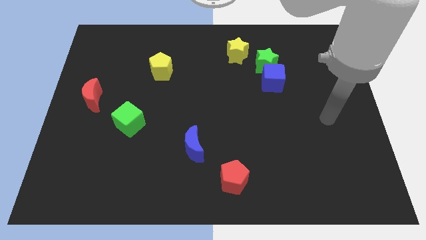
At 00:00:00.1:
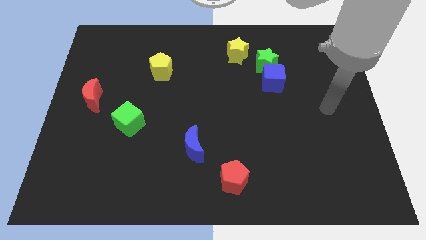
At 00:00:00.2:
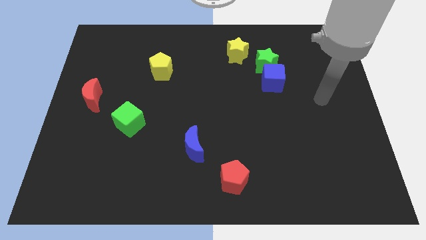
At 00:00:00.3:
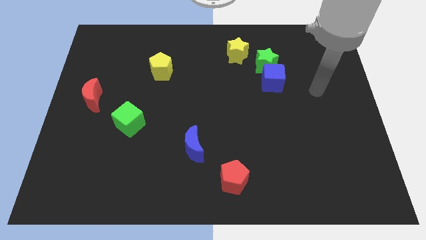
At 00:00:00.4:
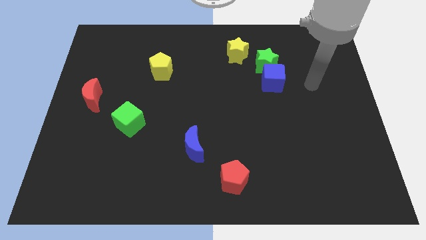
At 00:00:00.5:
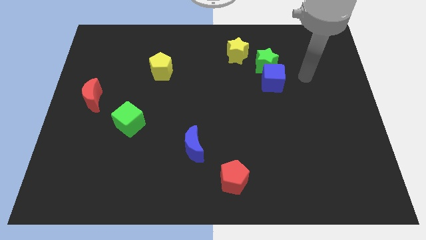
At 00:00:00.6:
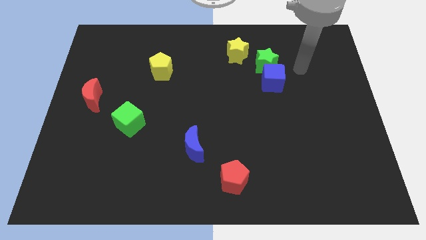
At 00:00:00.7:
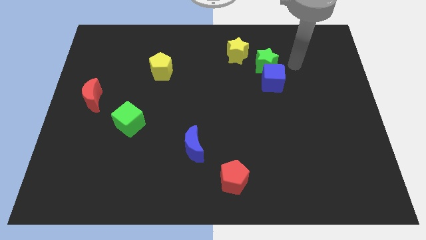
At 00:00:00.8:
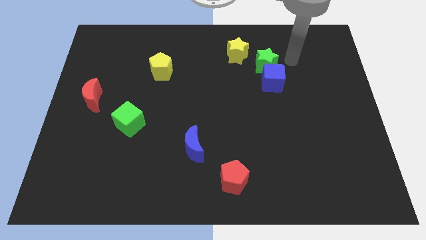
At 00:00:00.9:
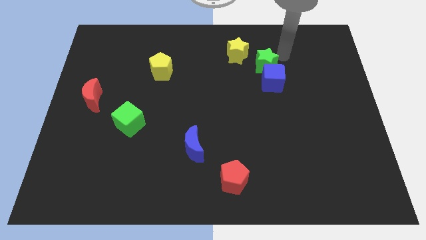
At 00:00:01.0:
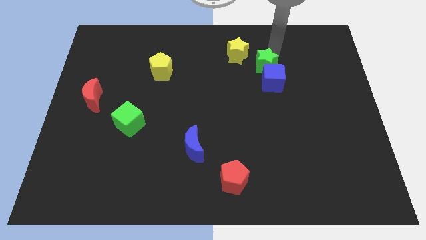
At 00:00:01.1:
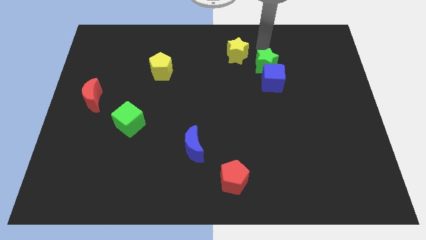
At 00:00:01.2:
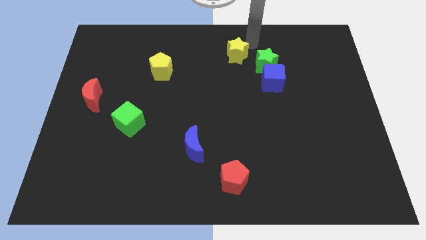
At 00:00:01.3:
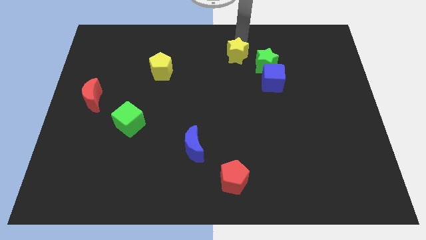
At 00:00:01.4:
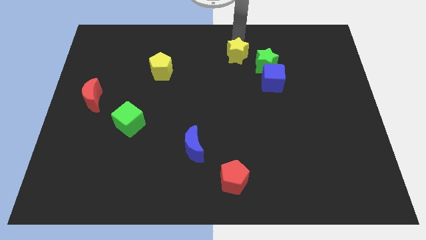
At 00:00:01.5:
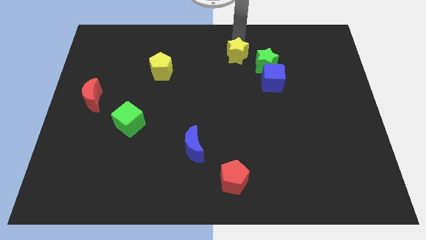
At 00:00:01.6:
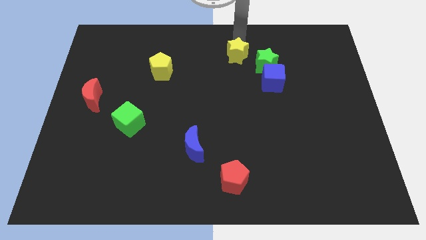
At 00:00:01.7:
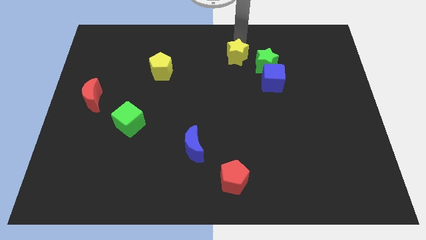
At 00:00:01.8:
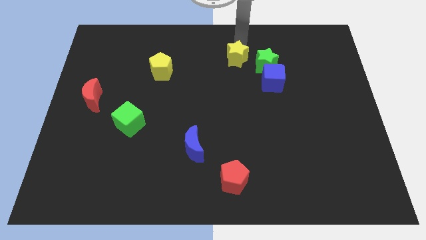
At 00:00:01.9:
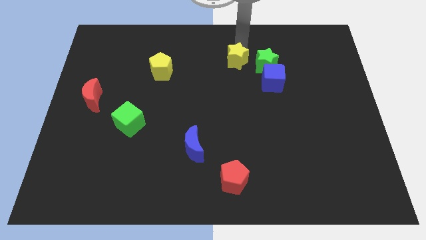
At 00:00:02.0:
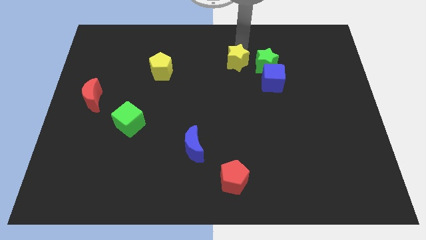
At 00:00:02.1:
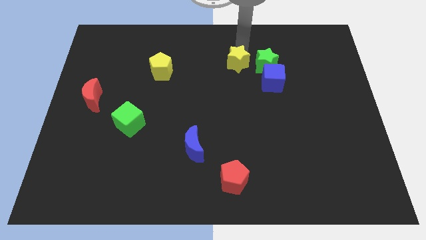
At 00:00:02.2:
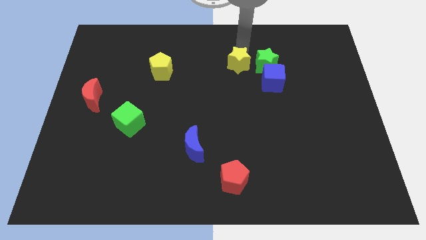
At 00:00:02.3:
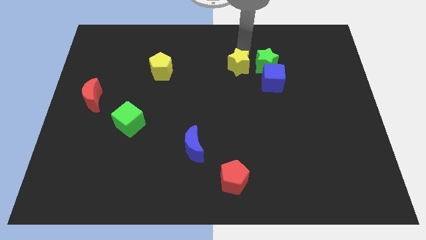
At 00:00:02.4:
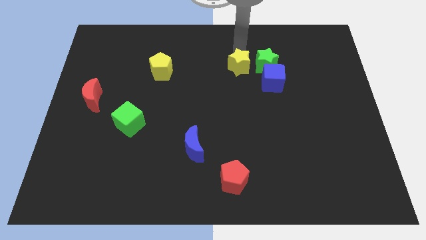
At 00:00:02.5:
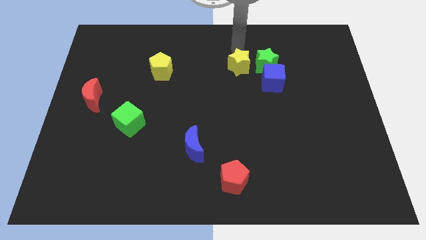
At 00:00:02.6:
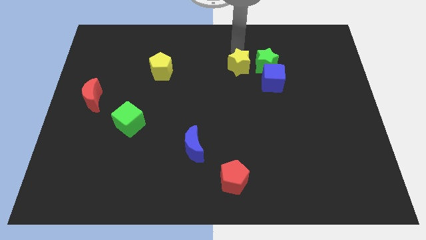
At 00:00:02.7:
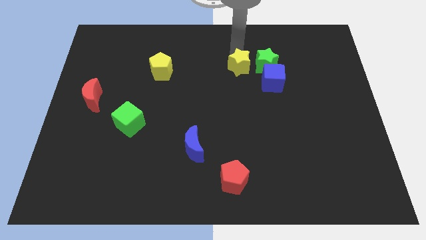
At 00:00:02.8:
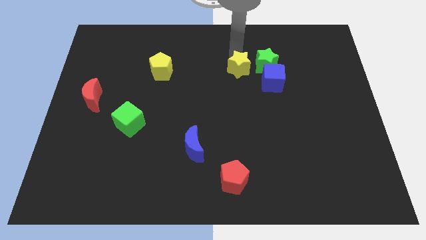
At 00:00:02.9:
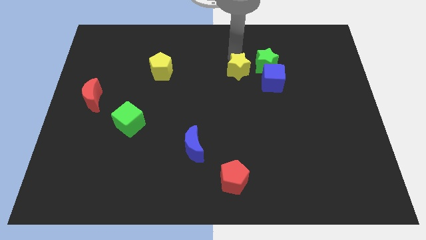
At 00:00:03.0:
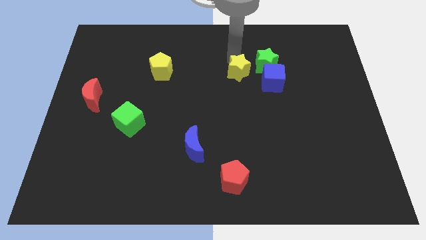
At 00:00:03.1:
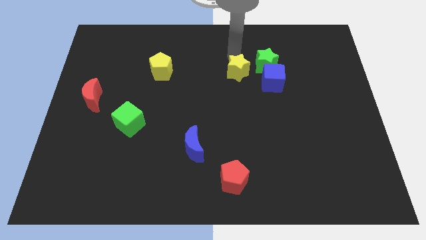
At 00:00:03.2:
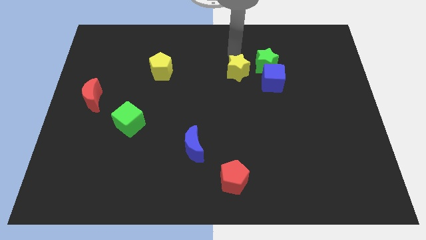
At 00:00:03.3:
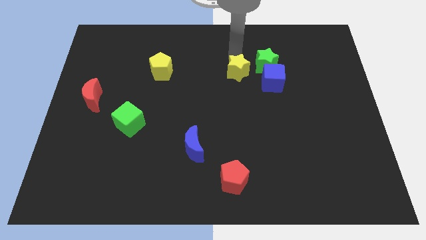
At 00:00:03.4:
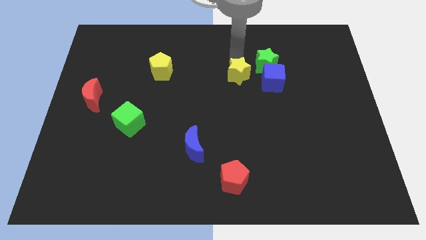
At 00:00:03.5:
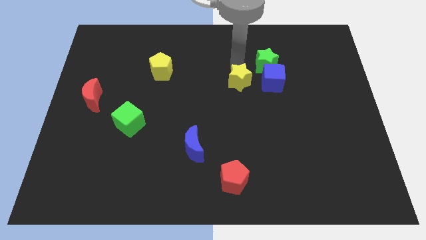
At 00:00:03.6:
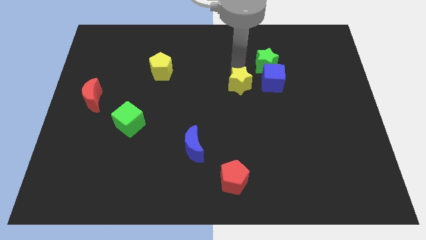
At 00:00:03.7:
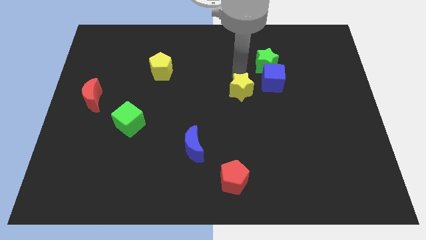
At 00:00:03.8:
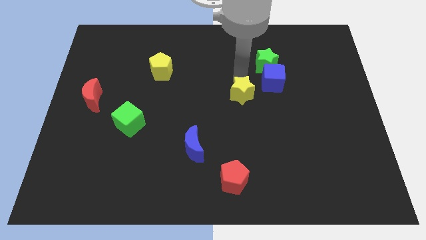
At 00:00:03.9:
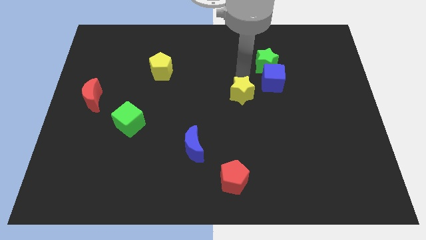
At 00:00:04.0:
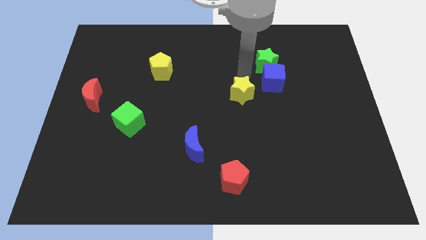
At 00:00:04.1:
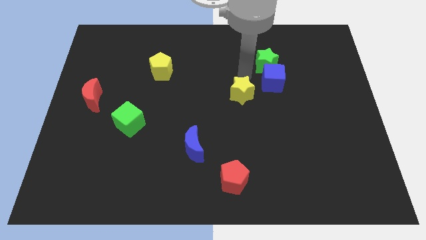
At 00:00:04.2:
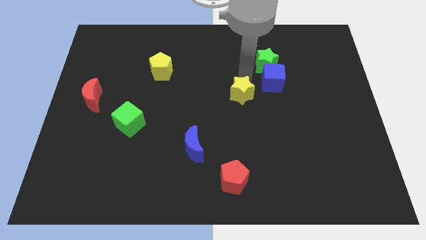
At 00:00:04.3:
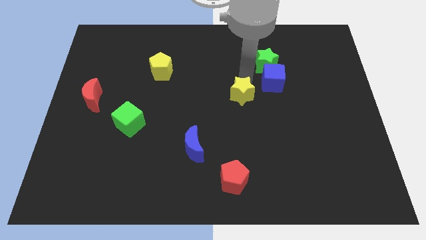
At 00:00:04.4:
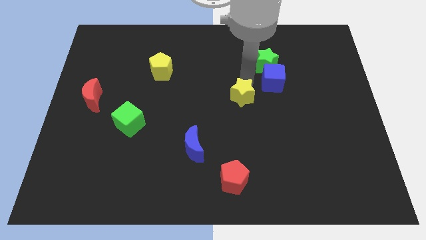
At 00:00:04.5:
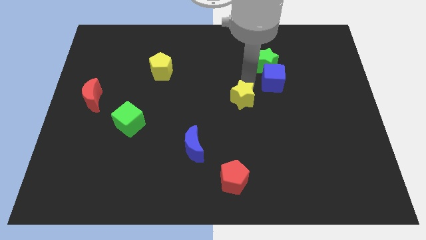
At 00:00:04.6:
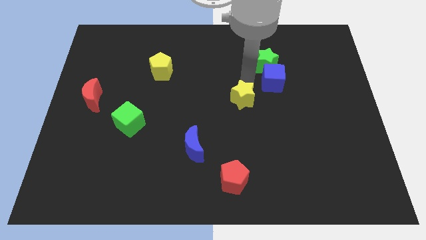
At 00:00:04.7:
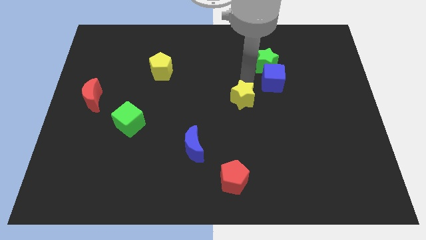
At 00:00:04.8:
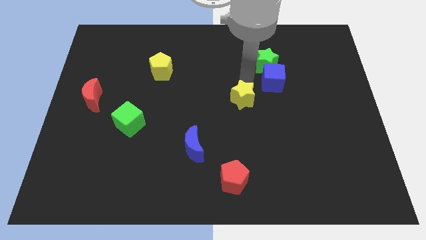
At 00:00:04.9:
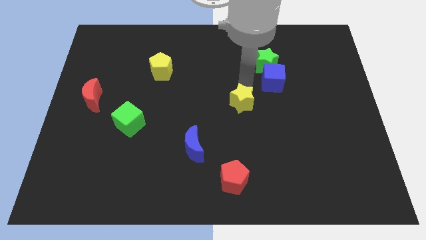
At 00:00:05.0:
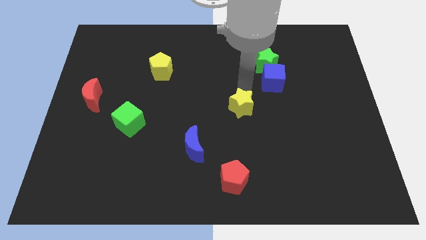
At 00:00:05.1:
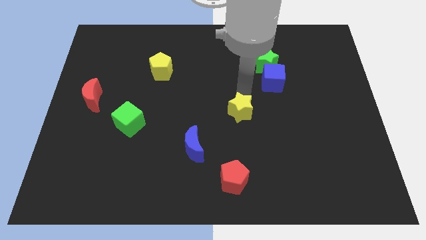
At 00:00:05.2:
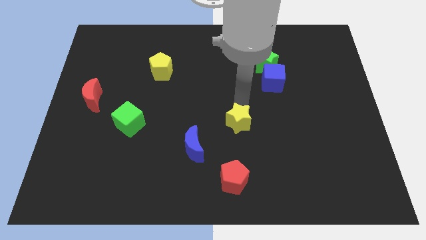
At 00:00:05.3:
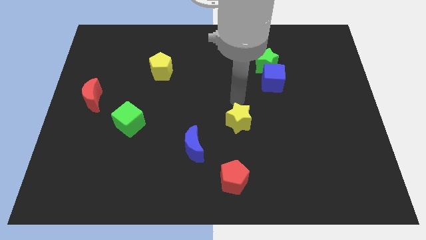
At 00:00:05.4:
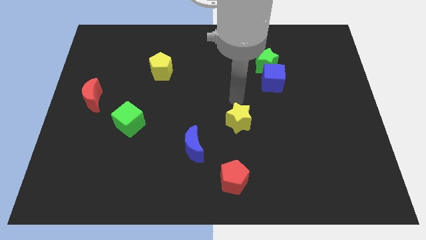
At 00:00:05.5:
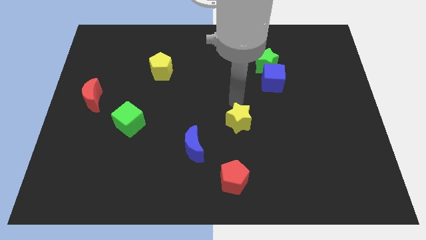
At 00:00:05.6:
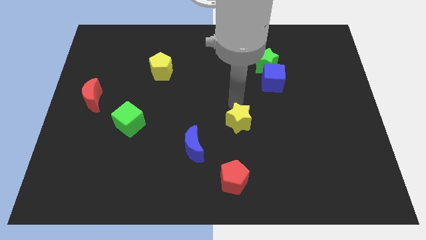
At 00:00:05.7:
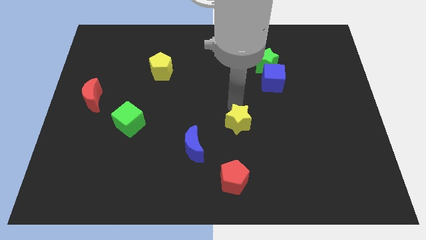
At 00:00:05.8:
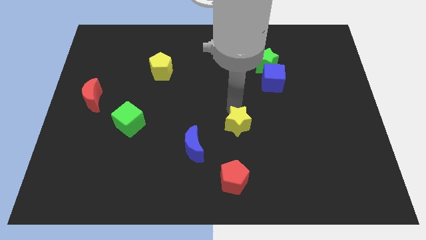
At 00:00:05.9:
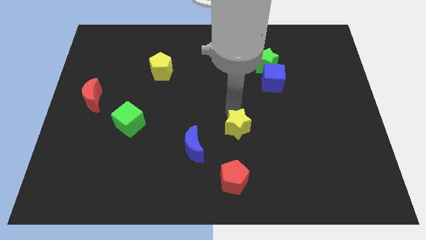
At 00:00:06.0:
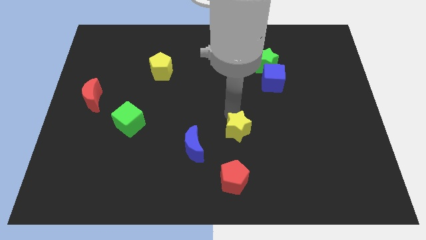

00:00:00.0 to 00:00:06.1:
move the yellow star right of the blue moon

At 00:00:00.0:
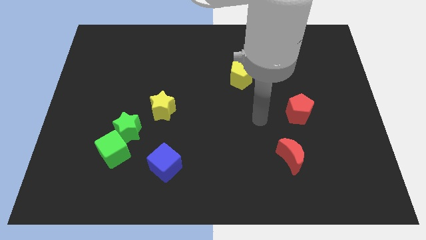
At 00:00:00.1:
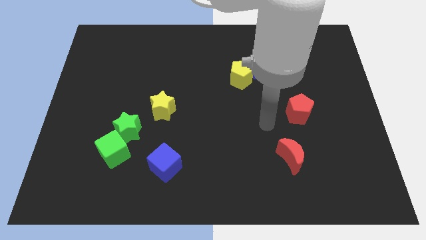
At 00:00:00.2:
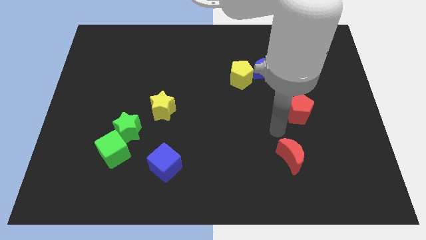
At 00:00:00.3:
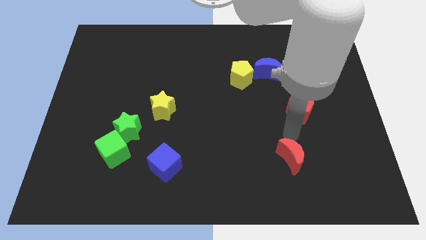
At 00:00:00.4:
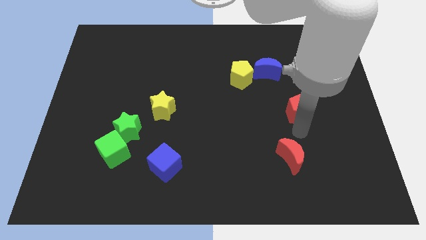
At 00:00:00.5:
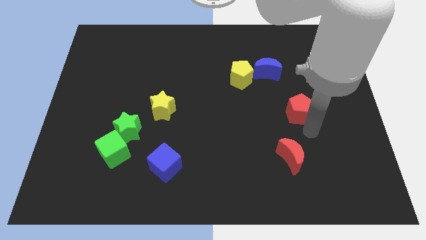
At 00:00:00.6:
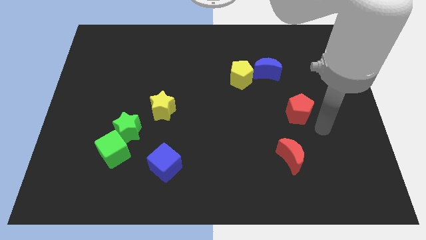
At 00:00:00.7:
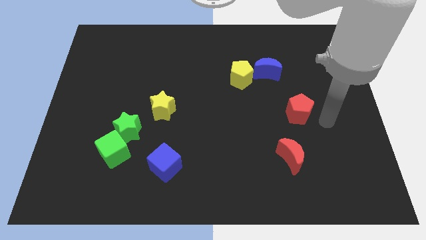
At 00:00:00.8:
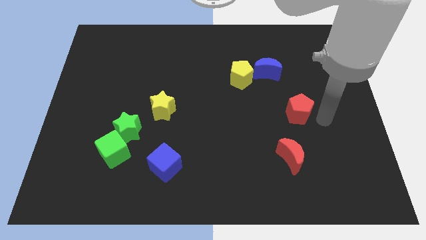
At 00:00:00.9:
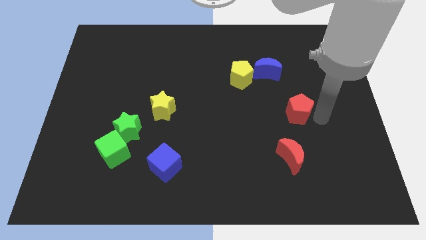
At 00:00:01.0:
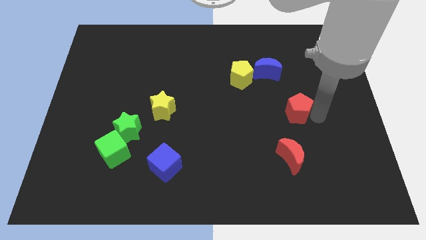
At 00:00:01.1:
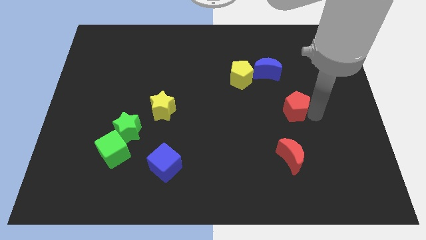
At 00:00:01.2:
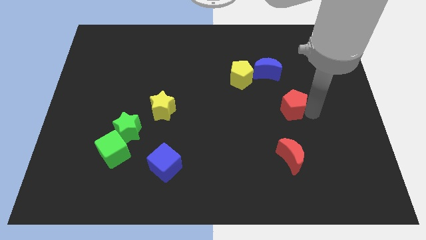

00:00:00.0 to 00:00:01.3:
move the red pentagon to the bottom side of the blue moon
